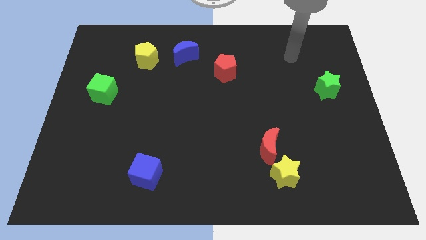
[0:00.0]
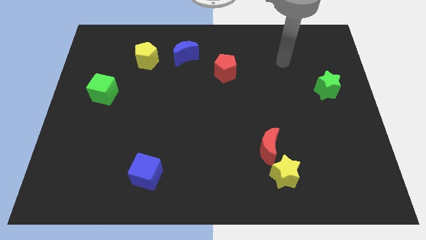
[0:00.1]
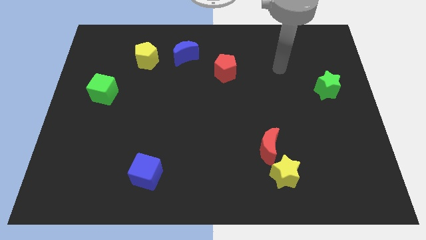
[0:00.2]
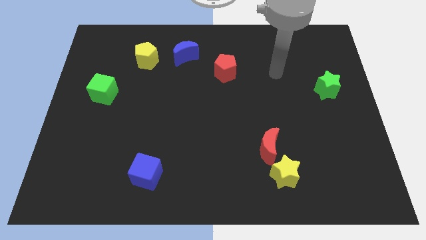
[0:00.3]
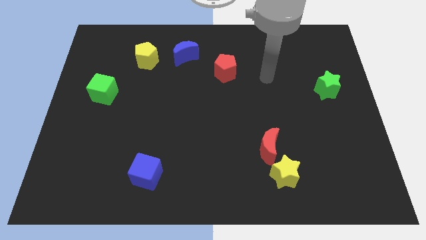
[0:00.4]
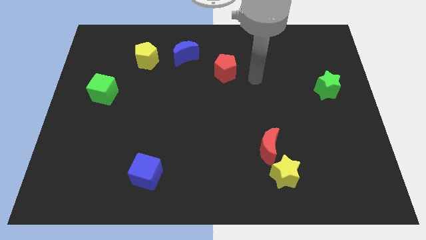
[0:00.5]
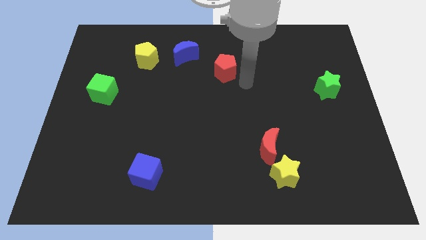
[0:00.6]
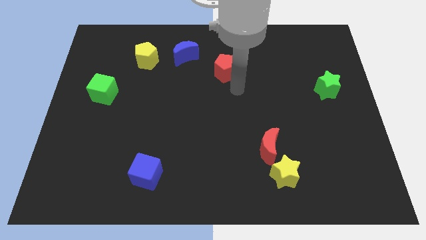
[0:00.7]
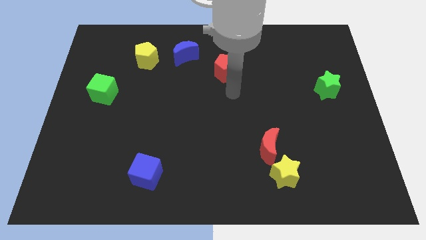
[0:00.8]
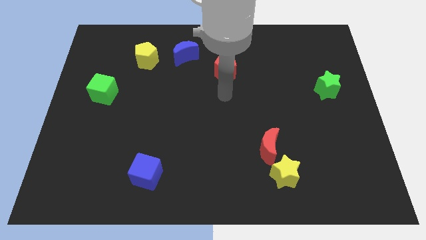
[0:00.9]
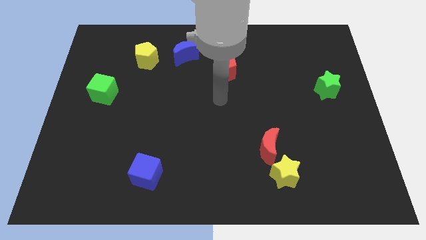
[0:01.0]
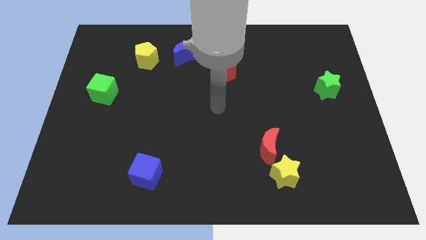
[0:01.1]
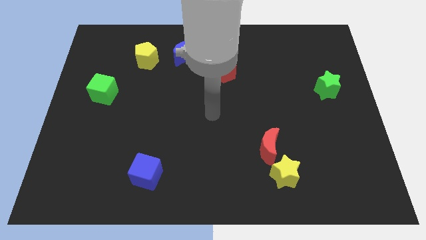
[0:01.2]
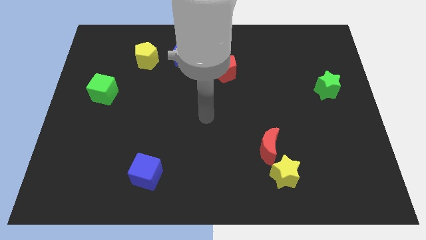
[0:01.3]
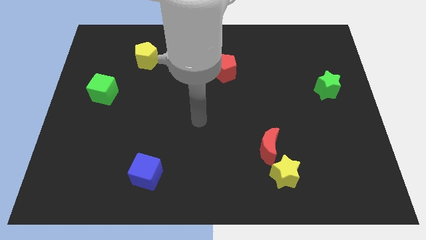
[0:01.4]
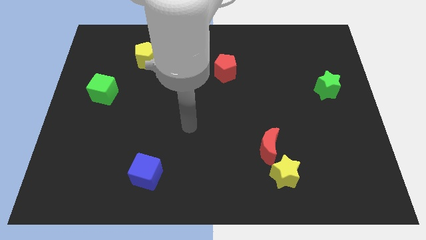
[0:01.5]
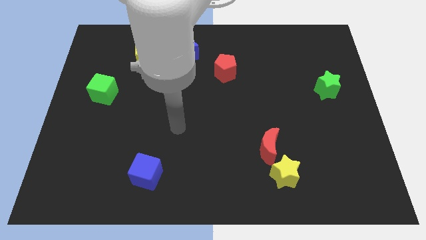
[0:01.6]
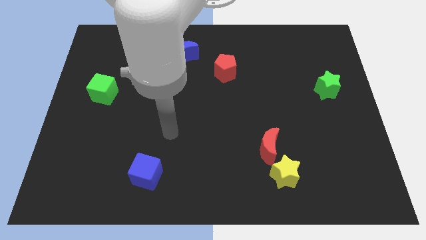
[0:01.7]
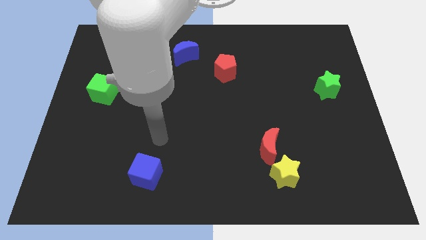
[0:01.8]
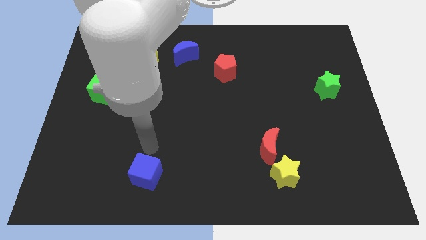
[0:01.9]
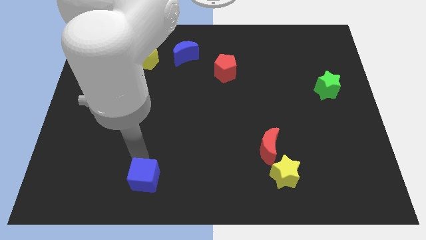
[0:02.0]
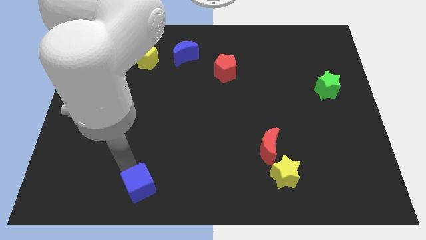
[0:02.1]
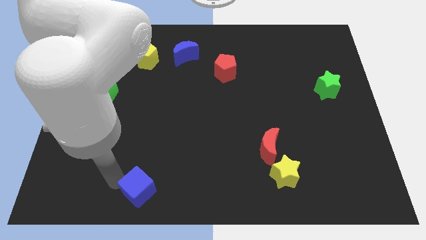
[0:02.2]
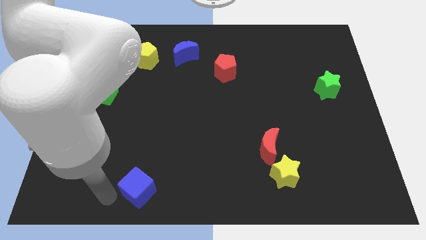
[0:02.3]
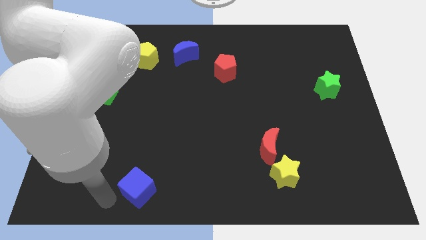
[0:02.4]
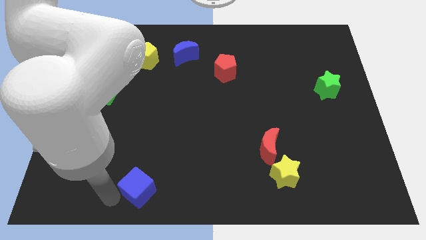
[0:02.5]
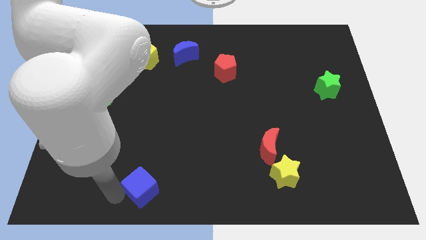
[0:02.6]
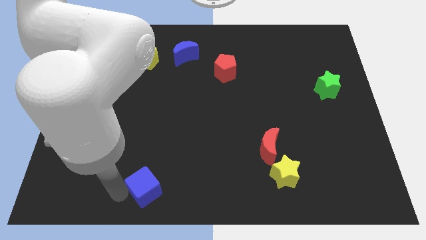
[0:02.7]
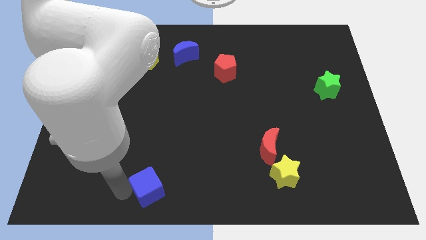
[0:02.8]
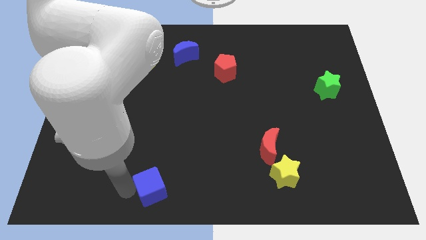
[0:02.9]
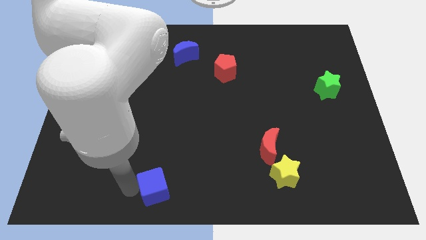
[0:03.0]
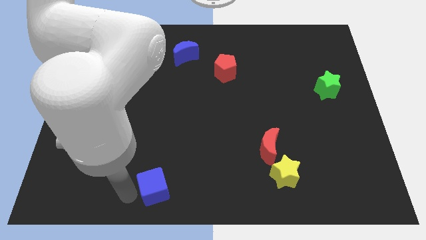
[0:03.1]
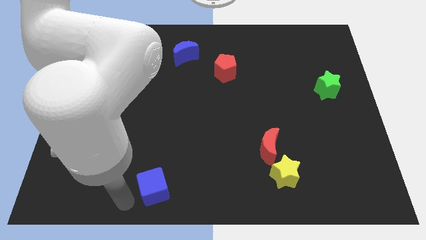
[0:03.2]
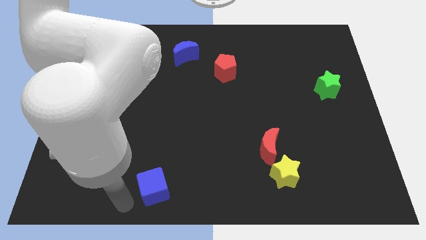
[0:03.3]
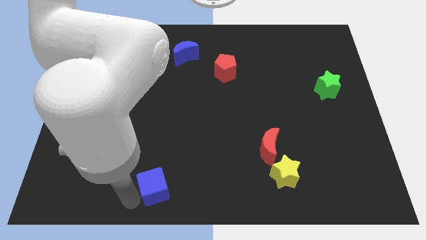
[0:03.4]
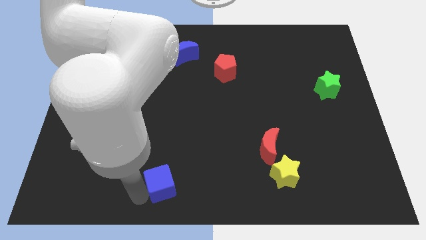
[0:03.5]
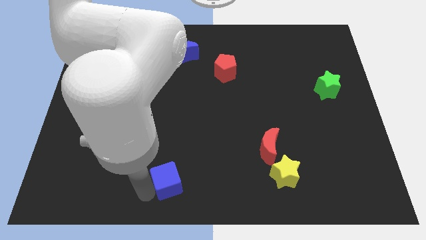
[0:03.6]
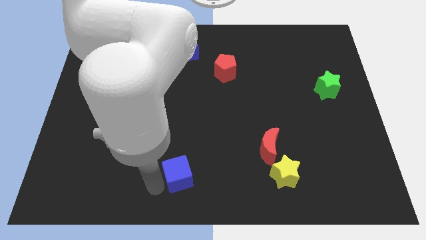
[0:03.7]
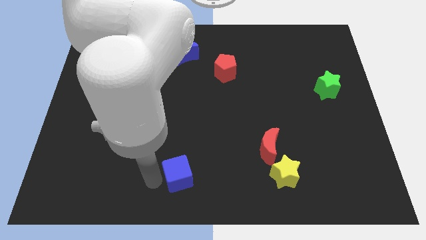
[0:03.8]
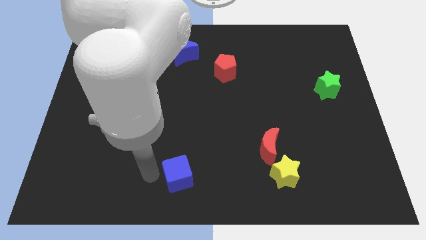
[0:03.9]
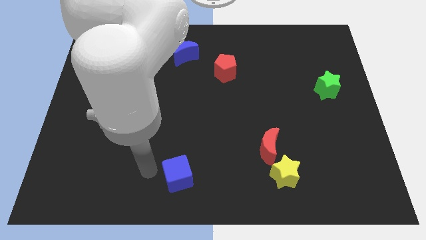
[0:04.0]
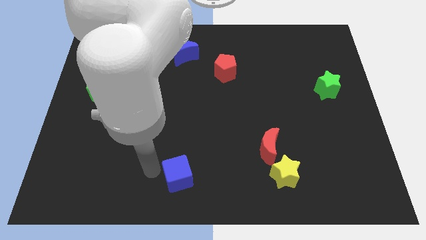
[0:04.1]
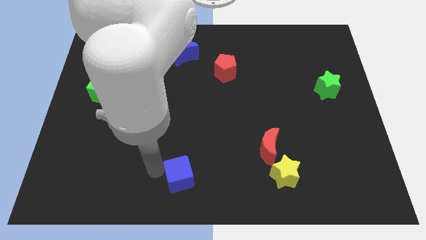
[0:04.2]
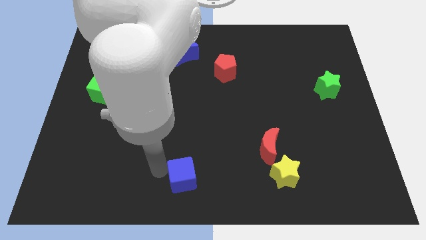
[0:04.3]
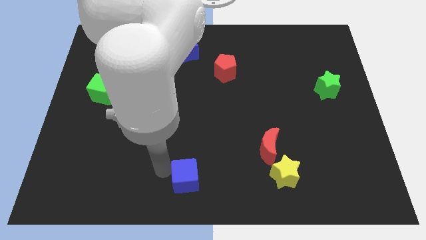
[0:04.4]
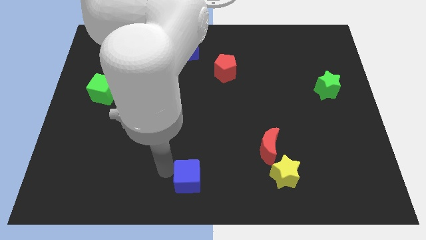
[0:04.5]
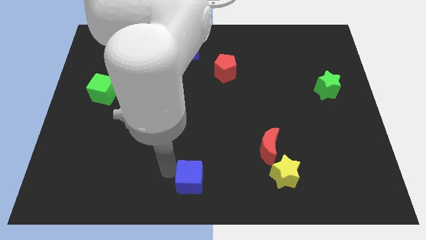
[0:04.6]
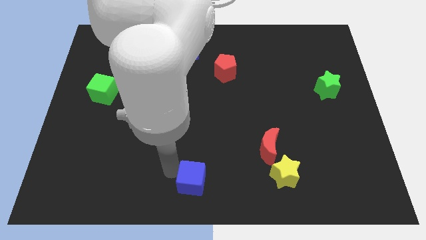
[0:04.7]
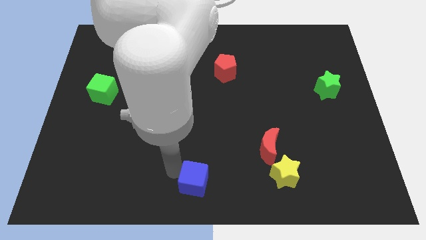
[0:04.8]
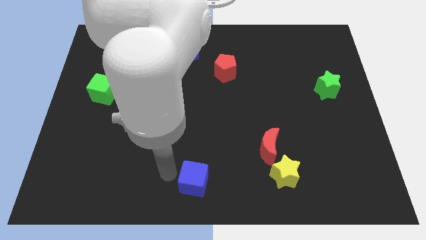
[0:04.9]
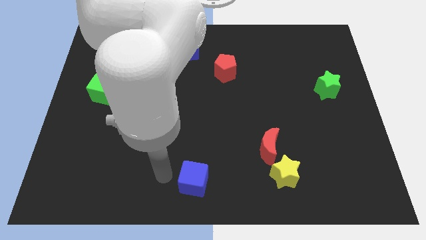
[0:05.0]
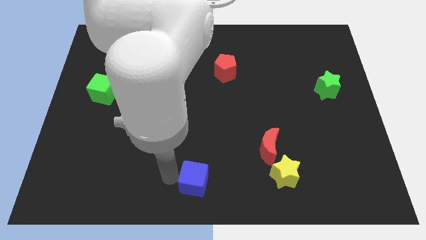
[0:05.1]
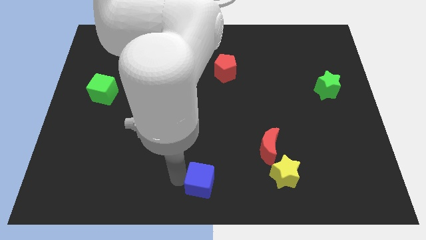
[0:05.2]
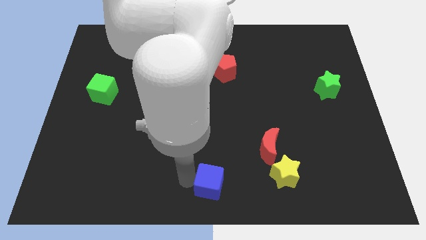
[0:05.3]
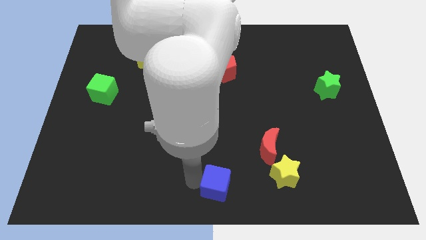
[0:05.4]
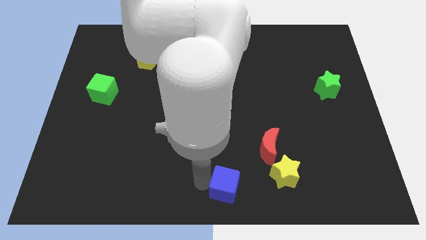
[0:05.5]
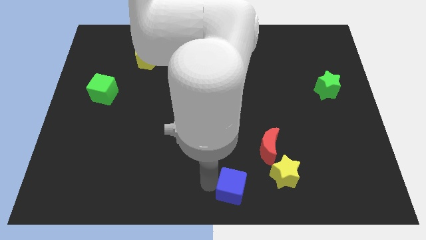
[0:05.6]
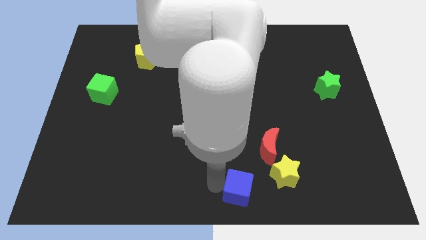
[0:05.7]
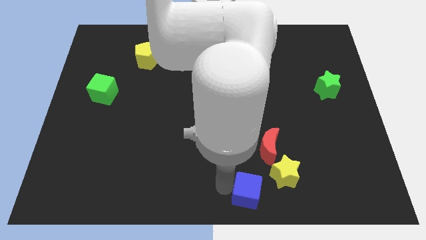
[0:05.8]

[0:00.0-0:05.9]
push the blue cube right

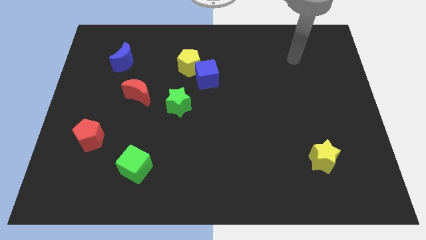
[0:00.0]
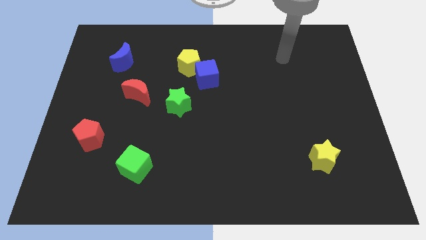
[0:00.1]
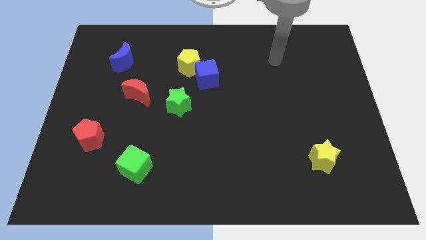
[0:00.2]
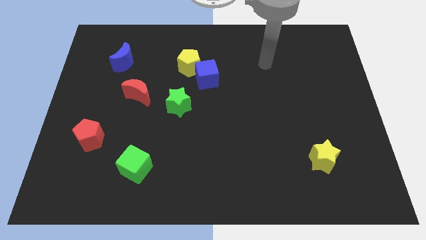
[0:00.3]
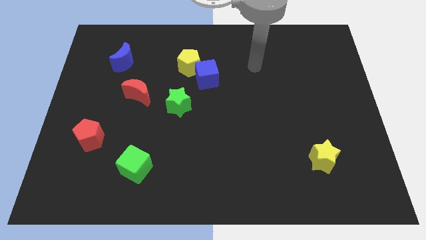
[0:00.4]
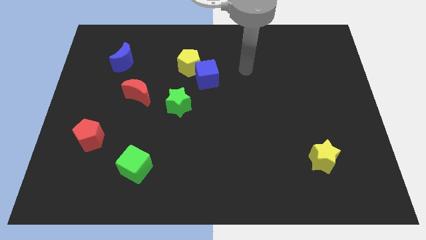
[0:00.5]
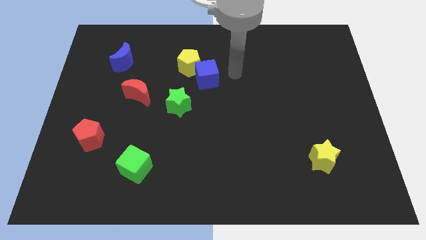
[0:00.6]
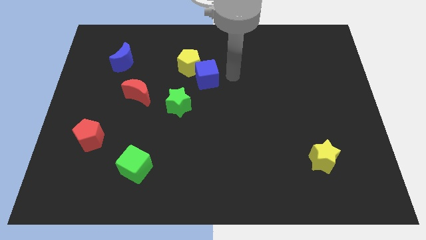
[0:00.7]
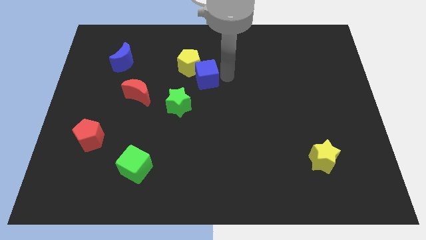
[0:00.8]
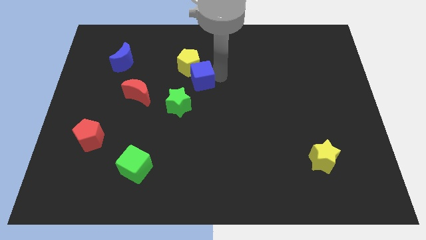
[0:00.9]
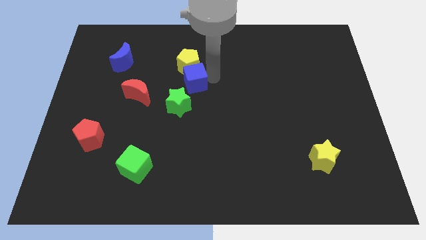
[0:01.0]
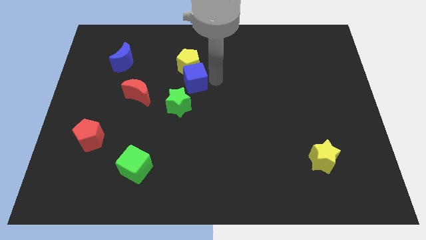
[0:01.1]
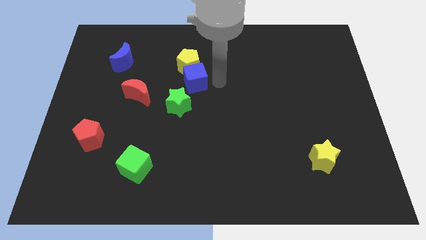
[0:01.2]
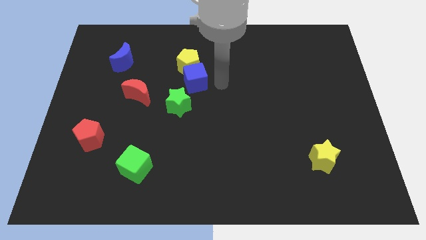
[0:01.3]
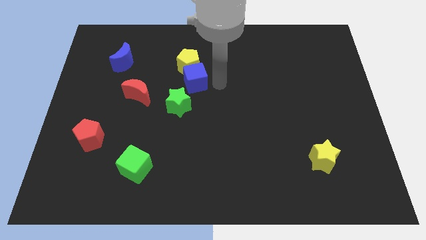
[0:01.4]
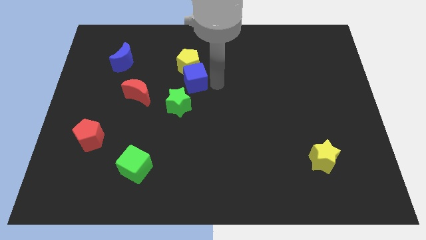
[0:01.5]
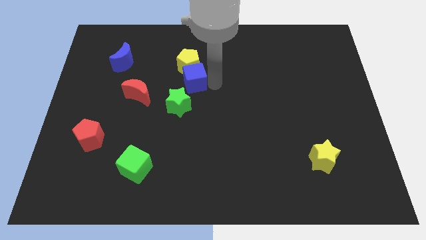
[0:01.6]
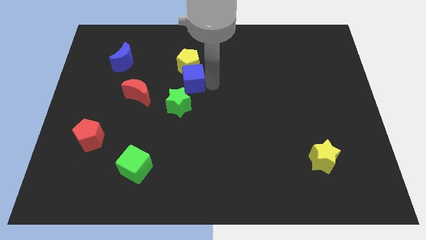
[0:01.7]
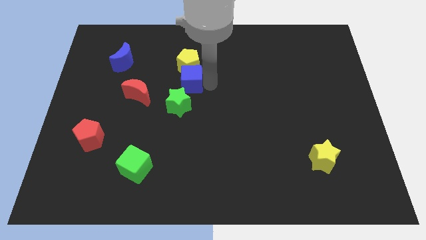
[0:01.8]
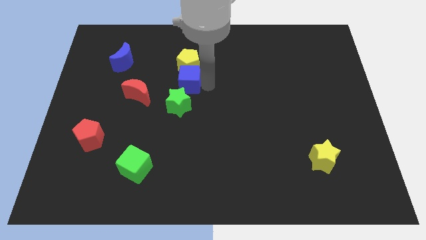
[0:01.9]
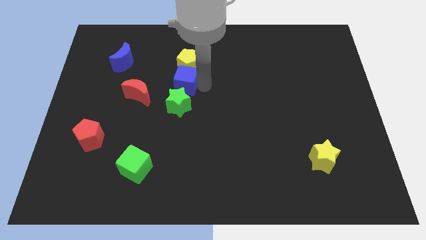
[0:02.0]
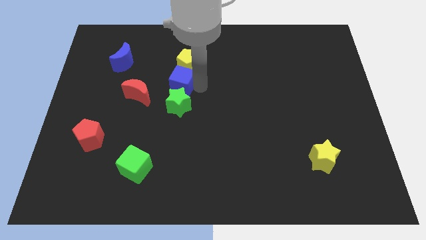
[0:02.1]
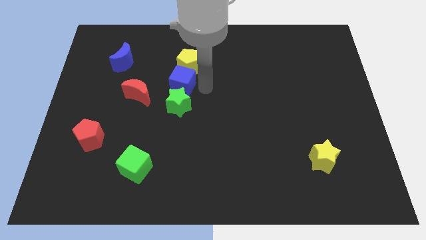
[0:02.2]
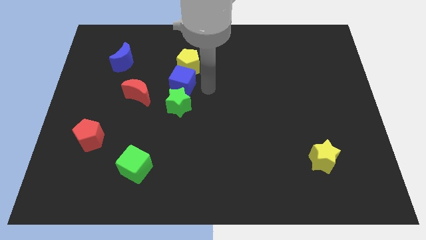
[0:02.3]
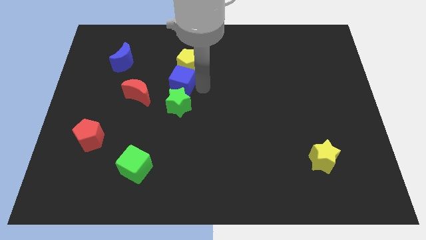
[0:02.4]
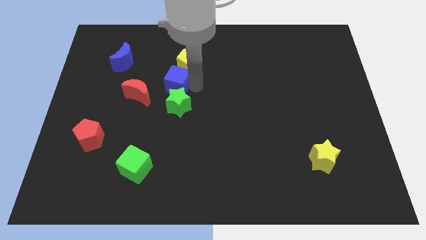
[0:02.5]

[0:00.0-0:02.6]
slide the blue cube left somewhat
